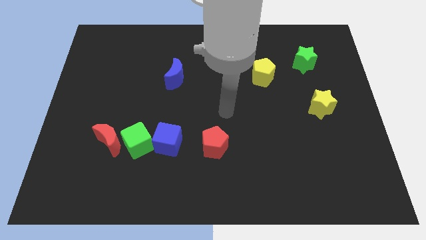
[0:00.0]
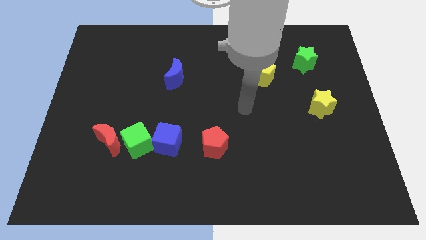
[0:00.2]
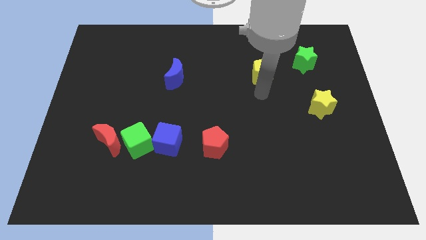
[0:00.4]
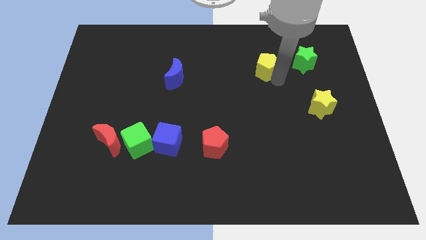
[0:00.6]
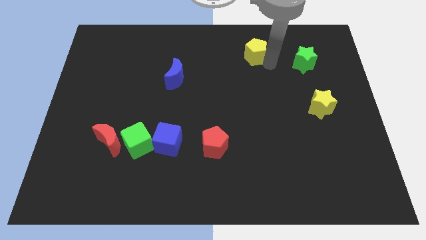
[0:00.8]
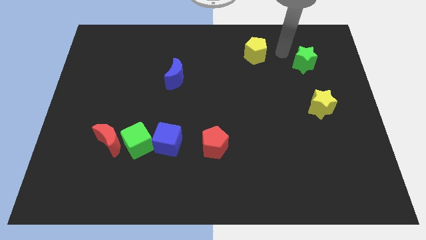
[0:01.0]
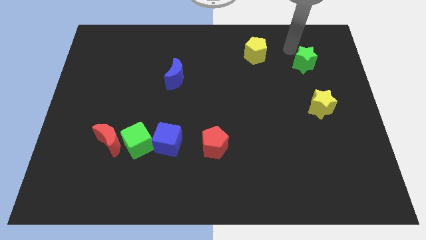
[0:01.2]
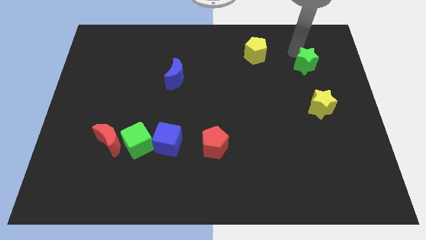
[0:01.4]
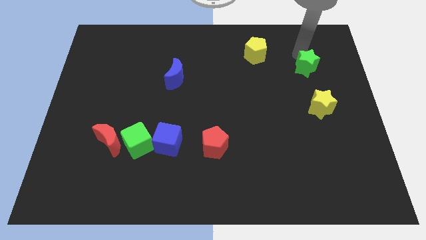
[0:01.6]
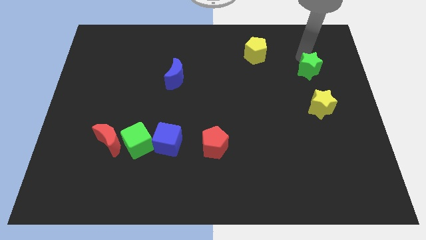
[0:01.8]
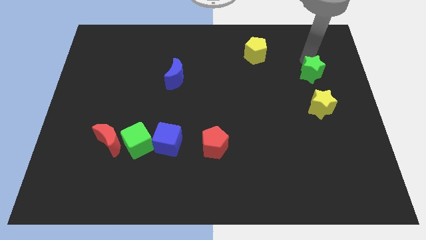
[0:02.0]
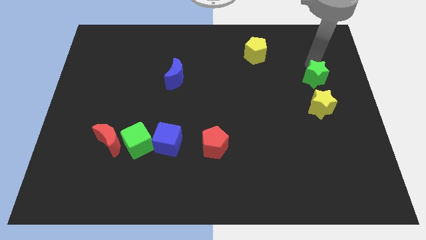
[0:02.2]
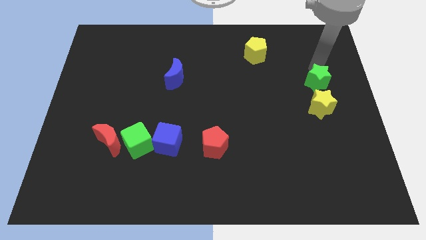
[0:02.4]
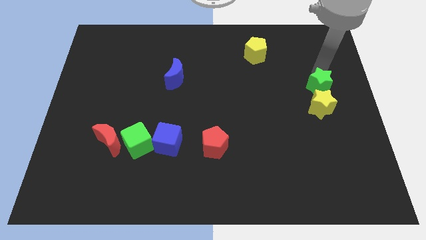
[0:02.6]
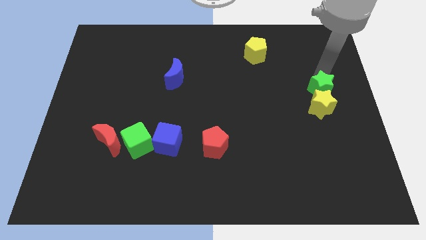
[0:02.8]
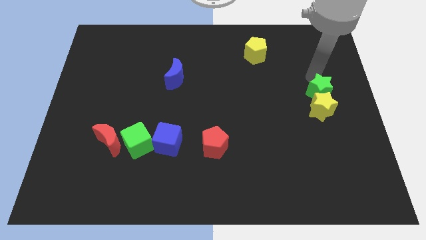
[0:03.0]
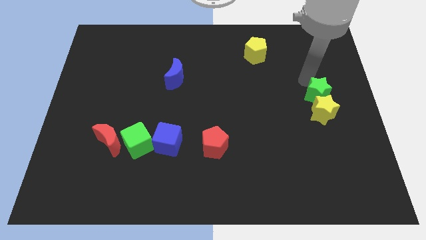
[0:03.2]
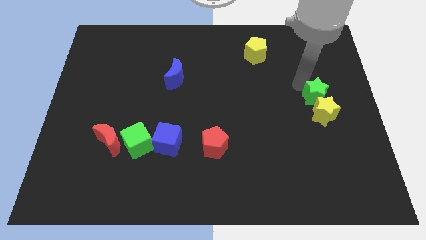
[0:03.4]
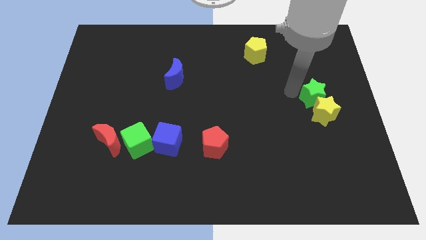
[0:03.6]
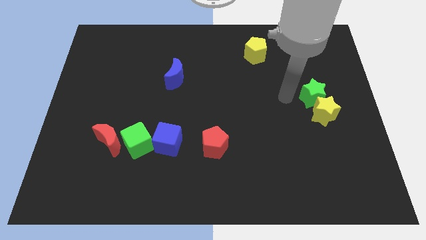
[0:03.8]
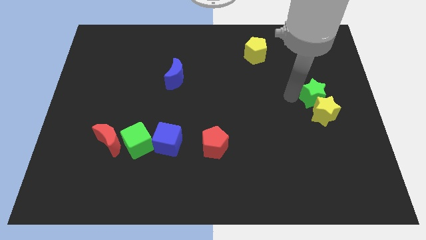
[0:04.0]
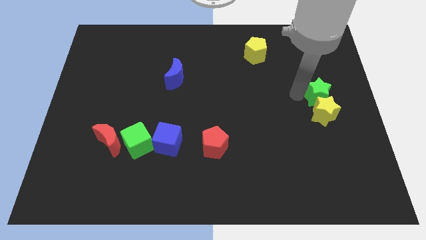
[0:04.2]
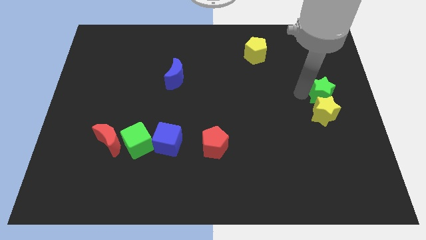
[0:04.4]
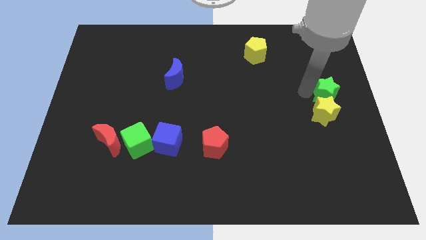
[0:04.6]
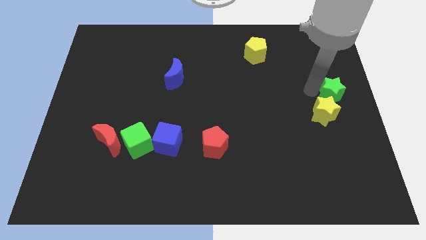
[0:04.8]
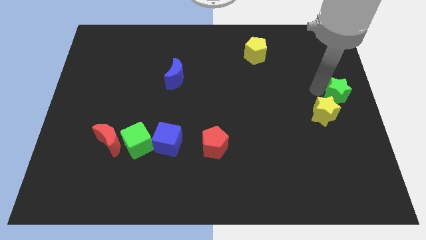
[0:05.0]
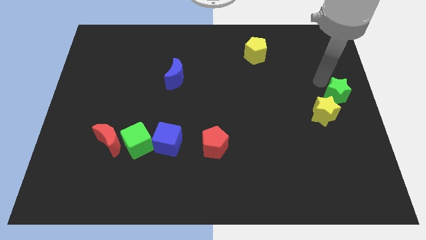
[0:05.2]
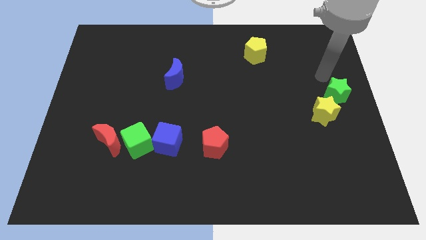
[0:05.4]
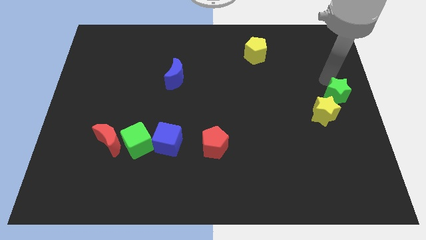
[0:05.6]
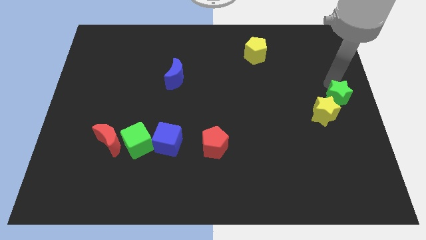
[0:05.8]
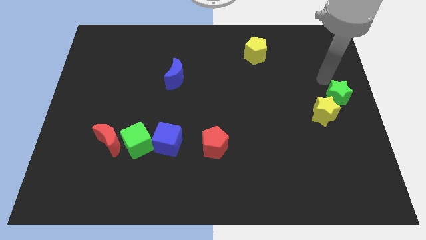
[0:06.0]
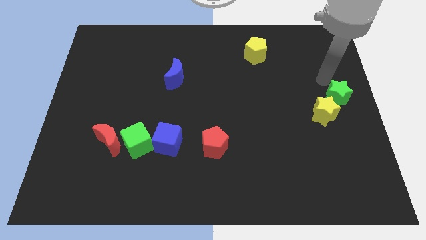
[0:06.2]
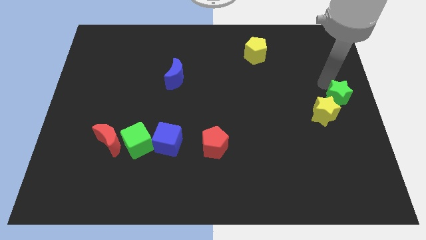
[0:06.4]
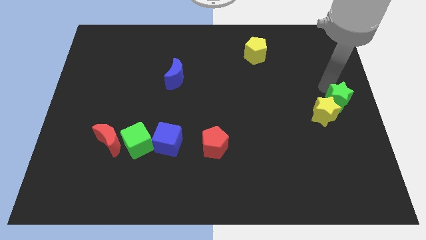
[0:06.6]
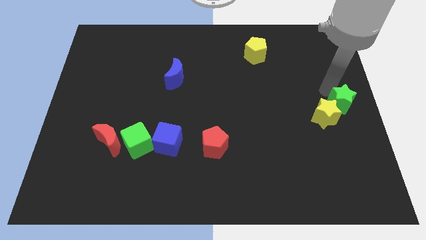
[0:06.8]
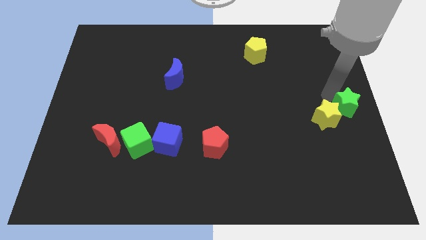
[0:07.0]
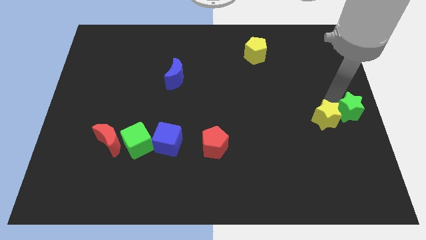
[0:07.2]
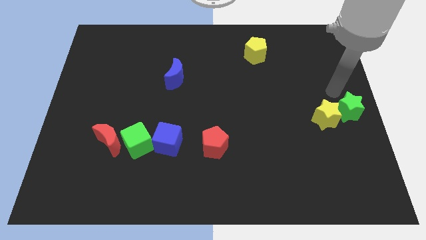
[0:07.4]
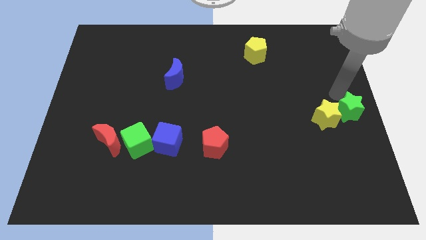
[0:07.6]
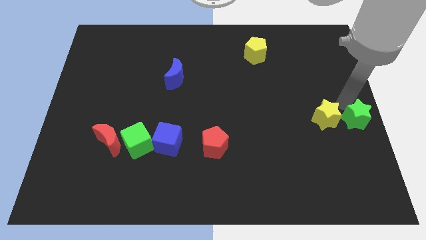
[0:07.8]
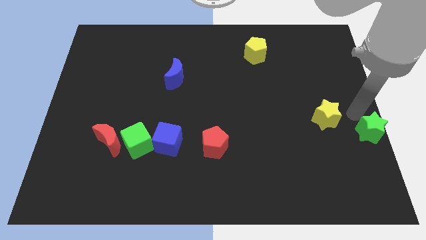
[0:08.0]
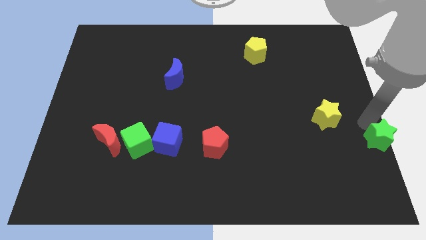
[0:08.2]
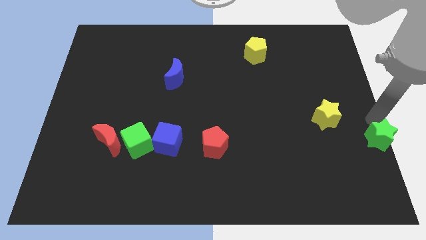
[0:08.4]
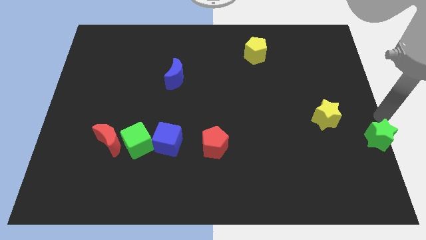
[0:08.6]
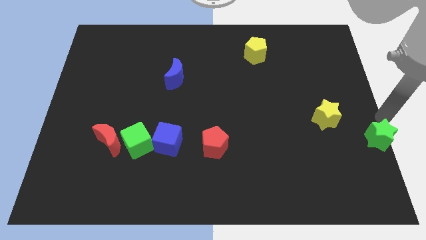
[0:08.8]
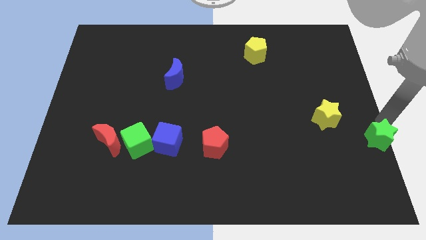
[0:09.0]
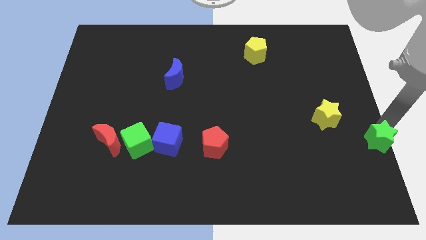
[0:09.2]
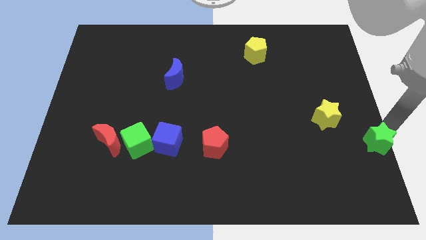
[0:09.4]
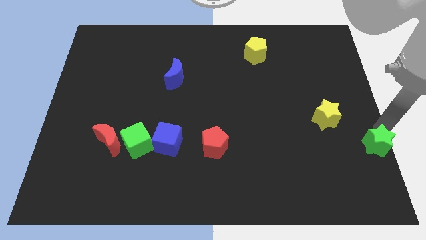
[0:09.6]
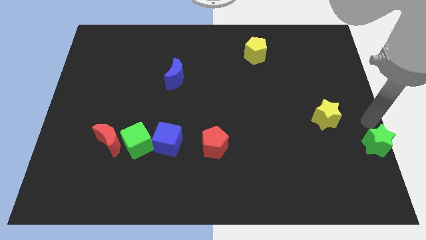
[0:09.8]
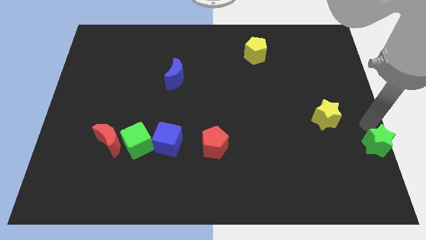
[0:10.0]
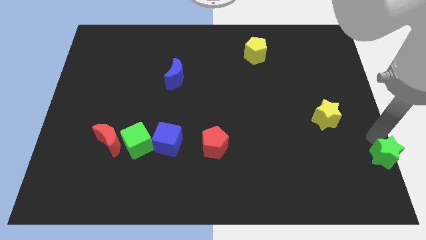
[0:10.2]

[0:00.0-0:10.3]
slide the green star to the lower right corner

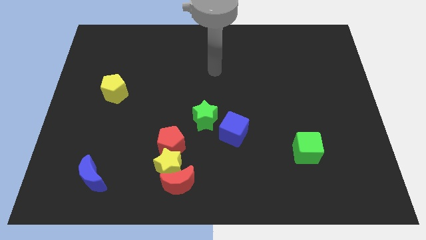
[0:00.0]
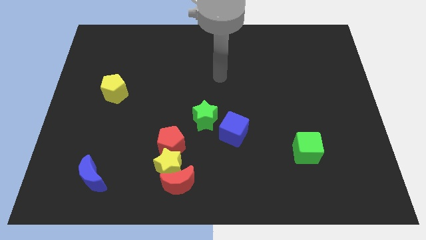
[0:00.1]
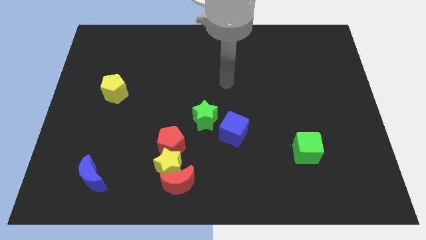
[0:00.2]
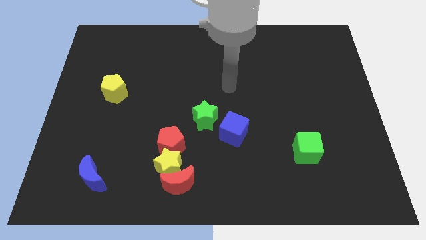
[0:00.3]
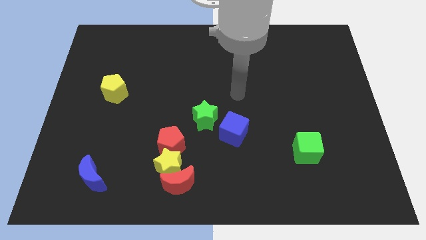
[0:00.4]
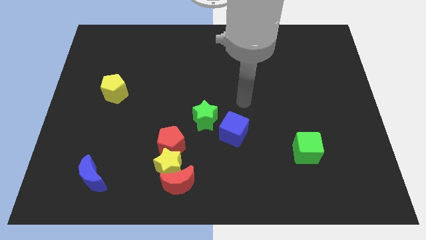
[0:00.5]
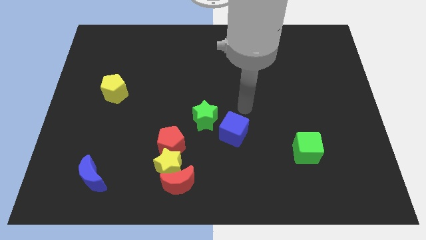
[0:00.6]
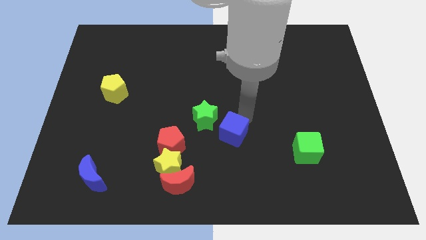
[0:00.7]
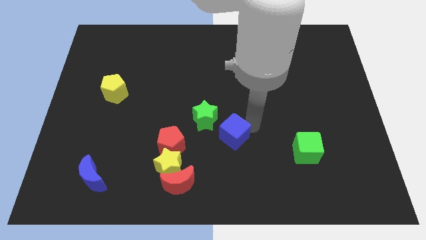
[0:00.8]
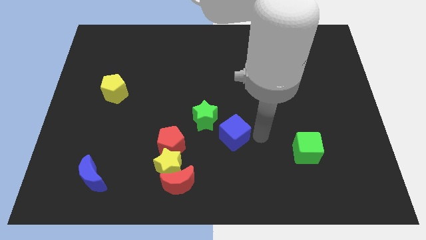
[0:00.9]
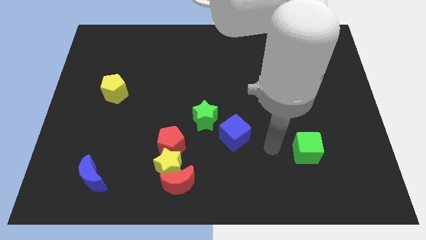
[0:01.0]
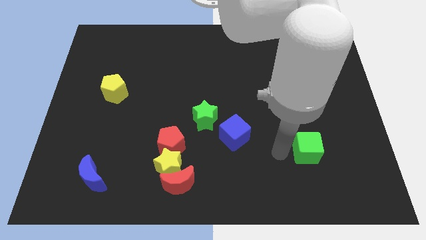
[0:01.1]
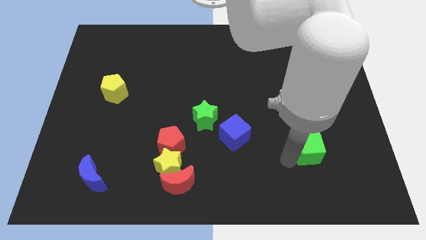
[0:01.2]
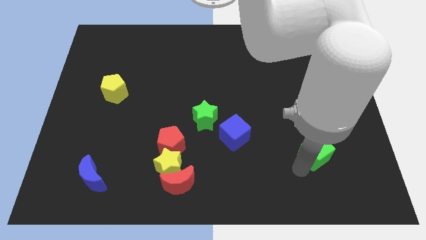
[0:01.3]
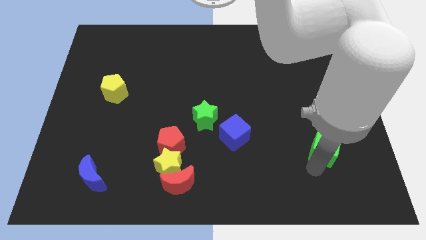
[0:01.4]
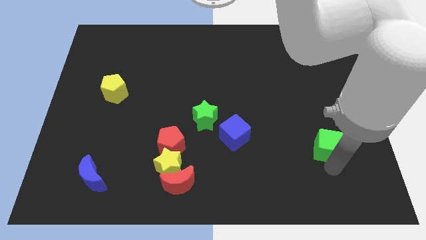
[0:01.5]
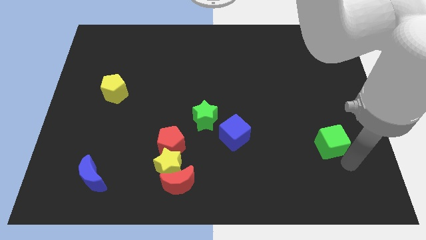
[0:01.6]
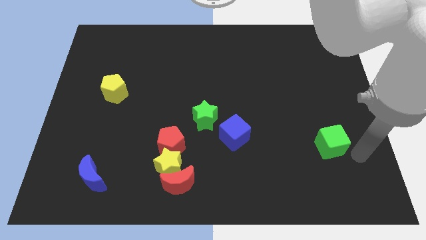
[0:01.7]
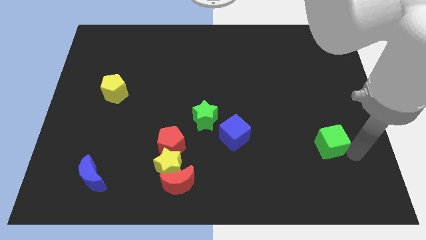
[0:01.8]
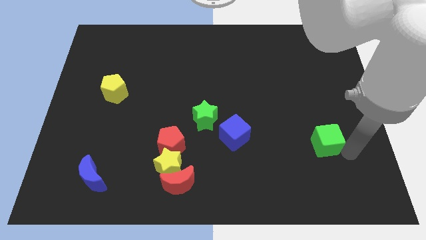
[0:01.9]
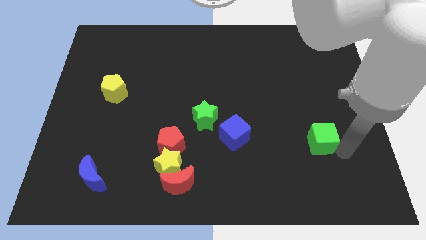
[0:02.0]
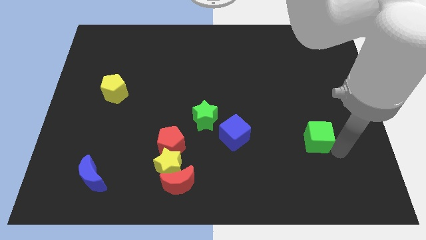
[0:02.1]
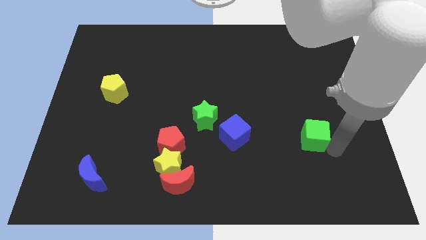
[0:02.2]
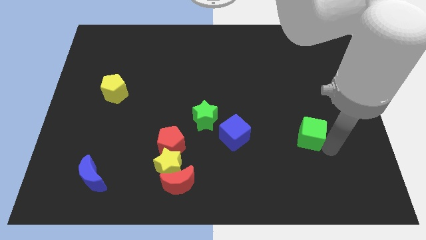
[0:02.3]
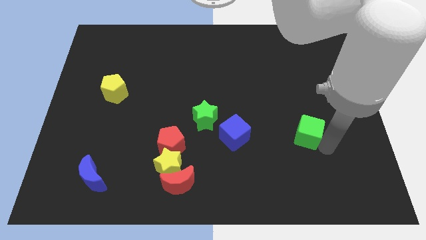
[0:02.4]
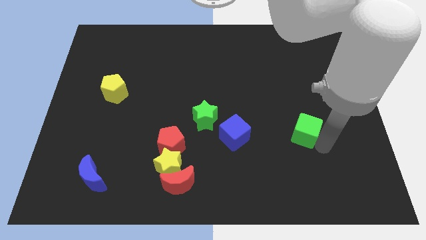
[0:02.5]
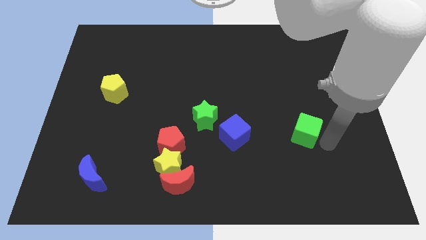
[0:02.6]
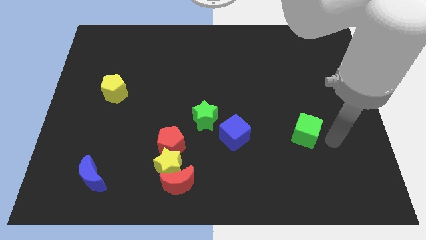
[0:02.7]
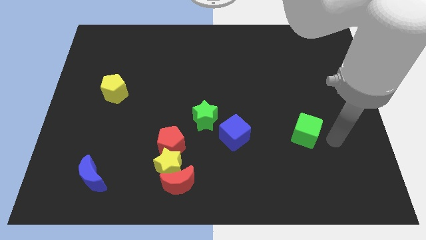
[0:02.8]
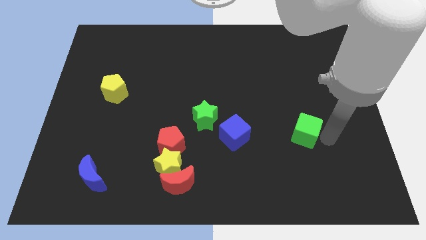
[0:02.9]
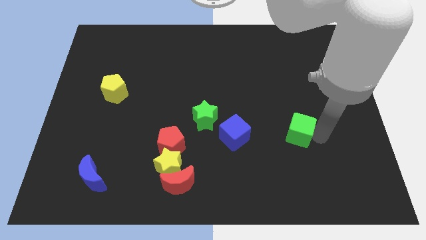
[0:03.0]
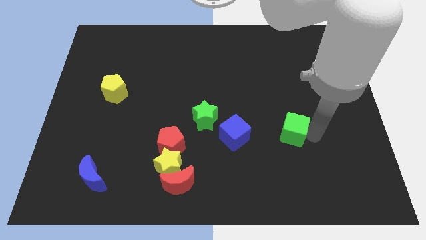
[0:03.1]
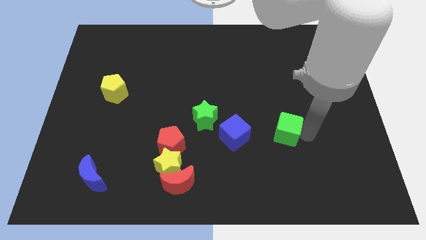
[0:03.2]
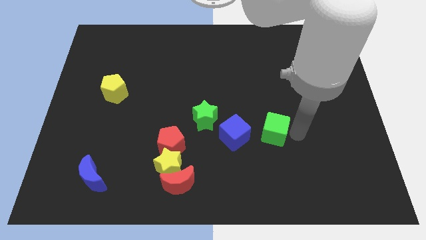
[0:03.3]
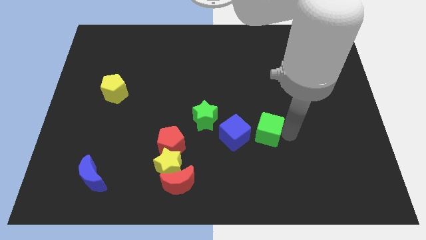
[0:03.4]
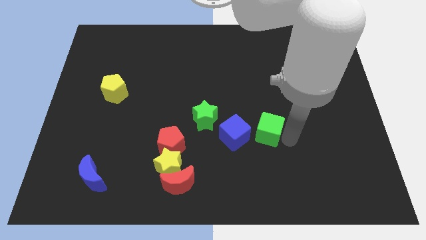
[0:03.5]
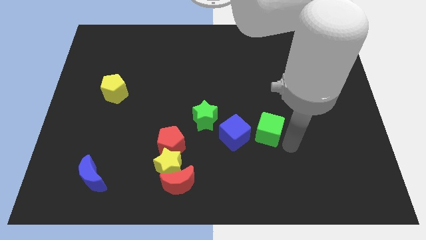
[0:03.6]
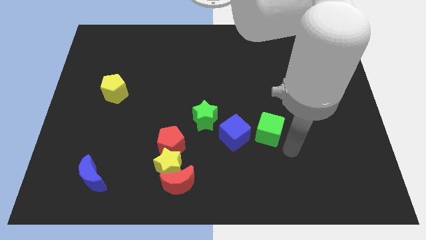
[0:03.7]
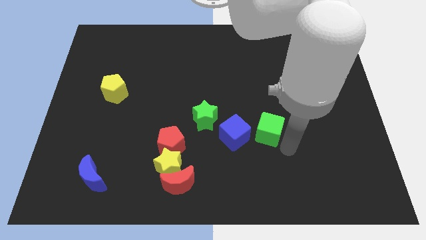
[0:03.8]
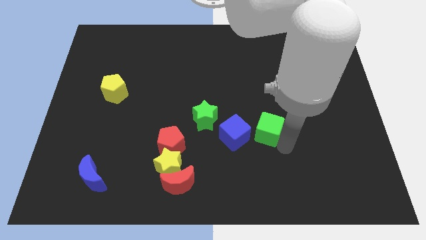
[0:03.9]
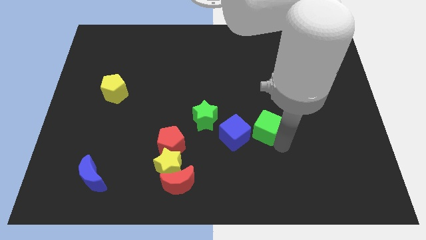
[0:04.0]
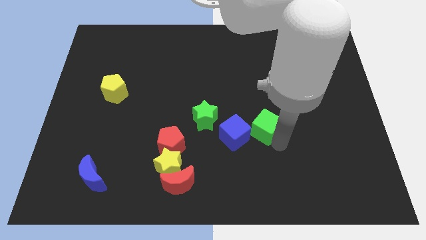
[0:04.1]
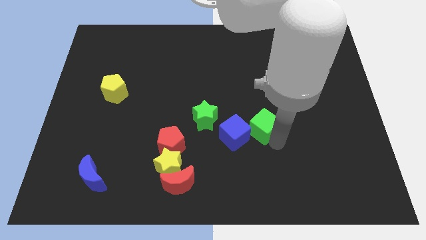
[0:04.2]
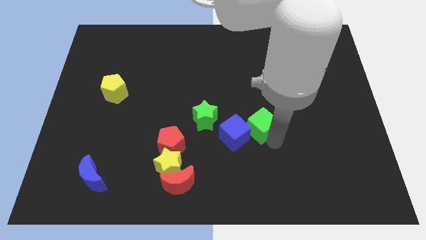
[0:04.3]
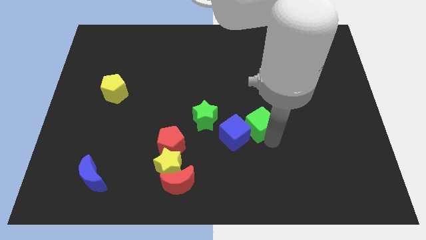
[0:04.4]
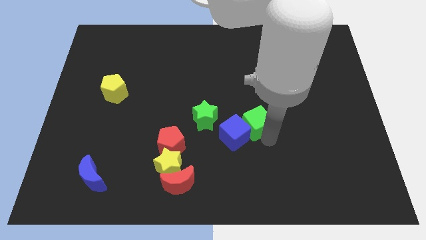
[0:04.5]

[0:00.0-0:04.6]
push the green cube to the middle
